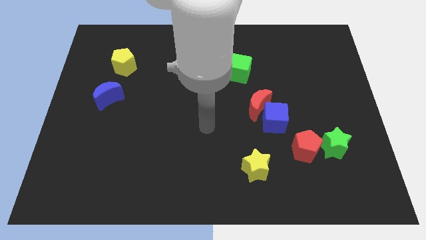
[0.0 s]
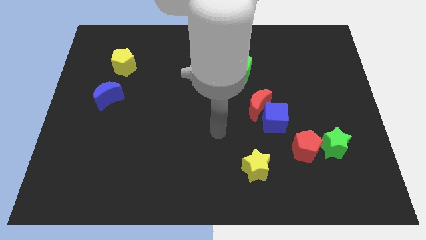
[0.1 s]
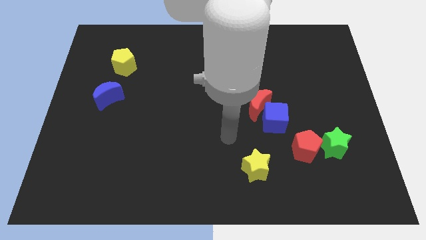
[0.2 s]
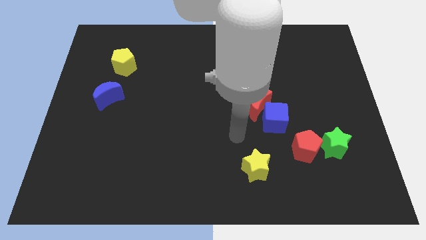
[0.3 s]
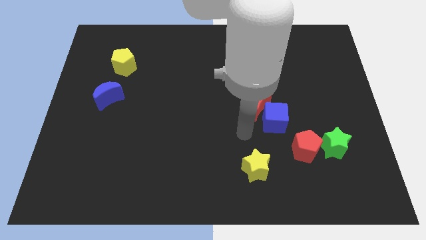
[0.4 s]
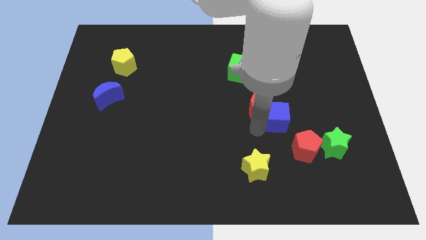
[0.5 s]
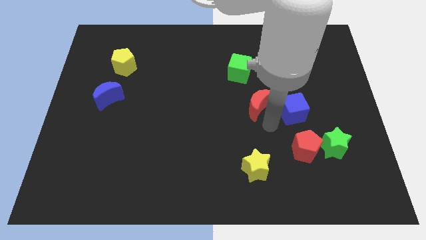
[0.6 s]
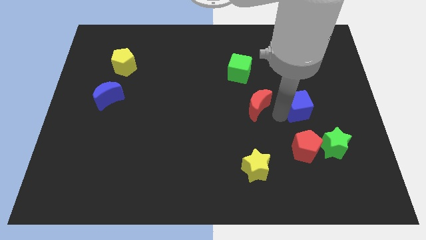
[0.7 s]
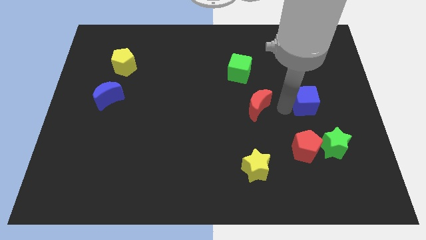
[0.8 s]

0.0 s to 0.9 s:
move the red moon away from the blue cube

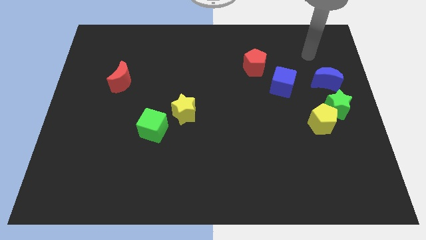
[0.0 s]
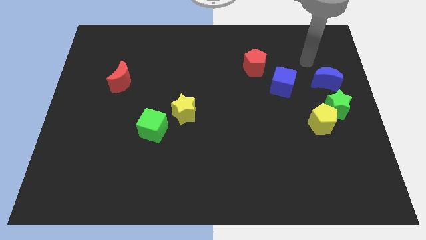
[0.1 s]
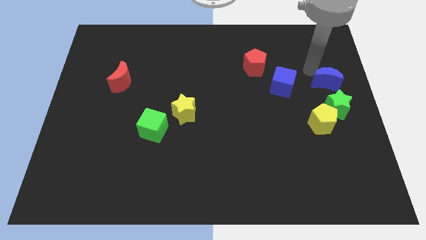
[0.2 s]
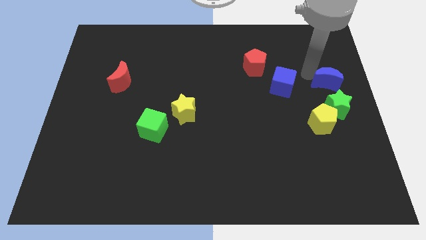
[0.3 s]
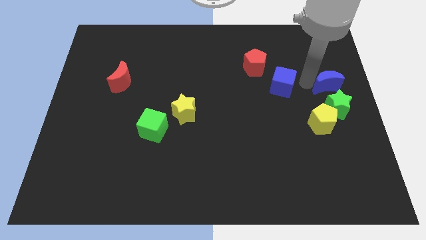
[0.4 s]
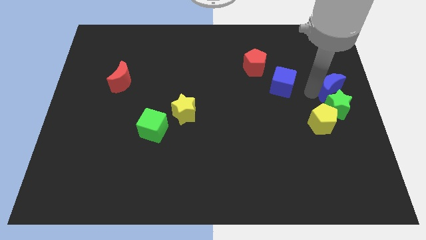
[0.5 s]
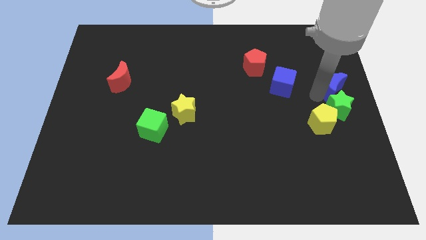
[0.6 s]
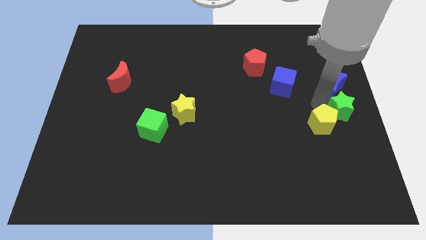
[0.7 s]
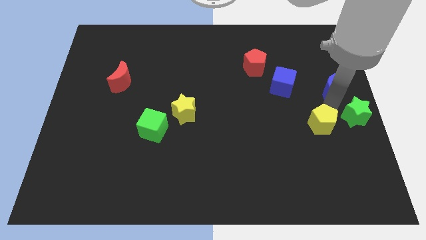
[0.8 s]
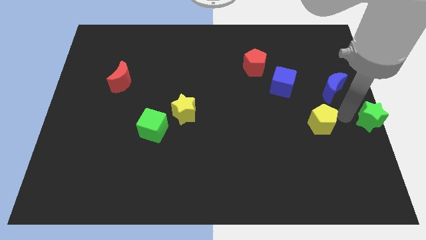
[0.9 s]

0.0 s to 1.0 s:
pull the yellow pentagon apart from the green star

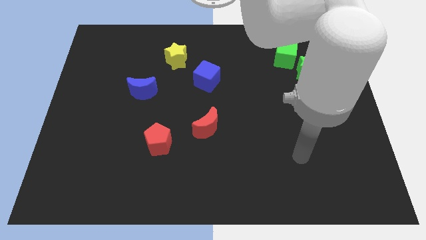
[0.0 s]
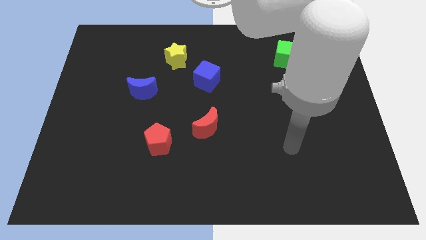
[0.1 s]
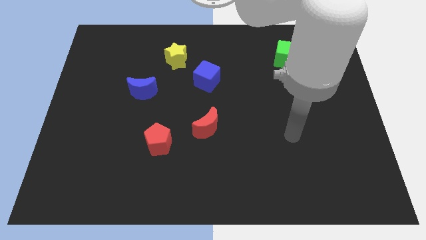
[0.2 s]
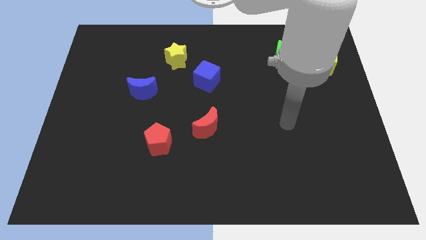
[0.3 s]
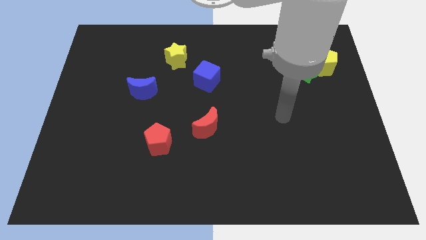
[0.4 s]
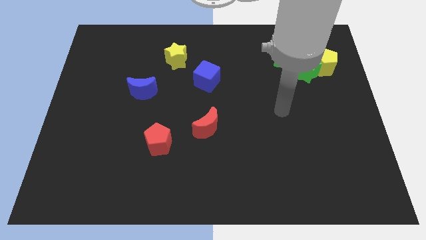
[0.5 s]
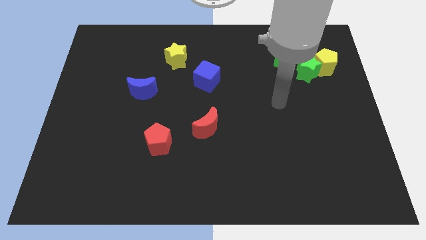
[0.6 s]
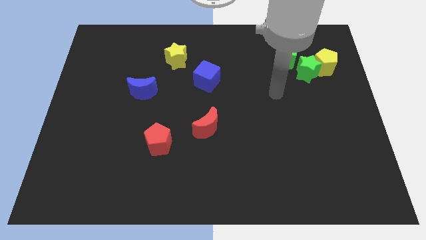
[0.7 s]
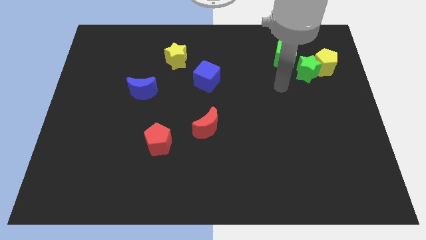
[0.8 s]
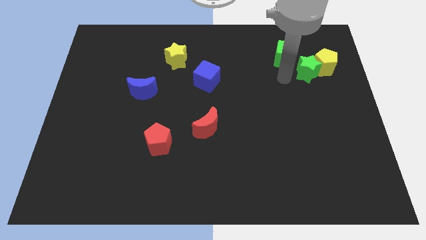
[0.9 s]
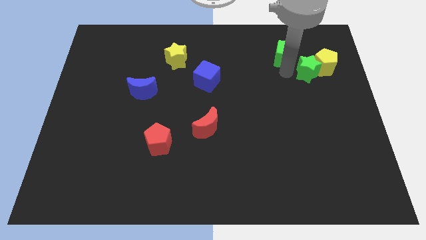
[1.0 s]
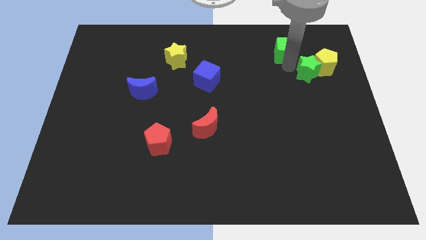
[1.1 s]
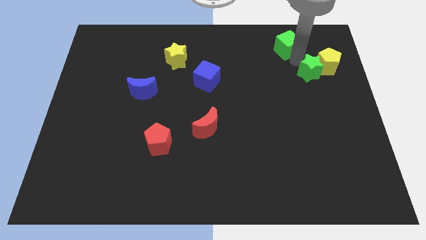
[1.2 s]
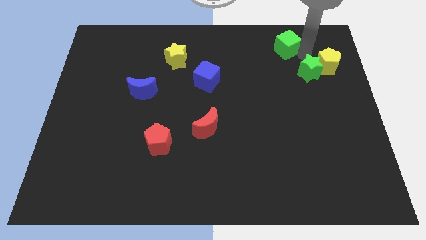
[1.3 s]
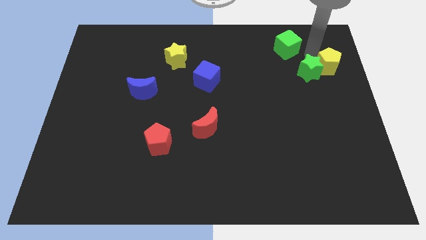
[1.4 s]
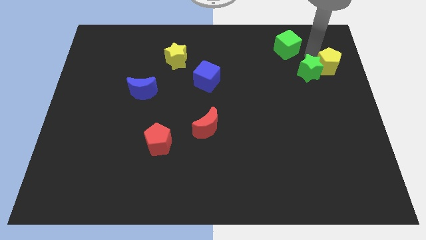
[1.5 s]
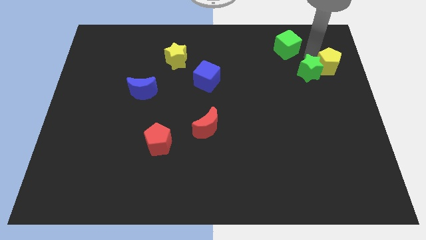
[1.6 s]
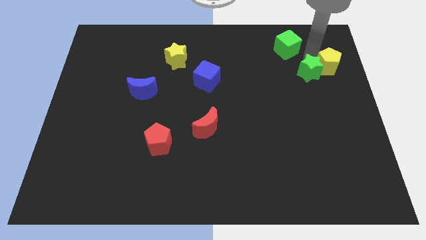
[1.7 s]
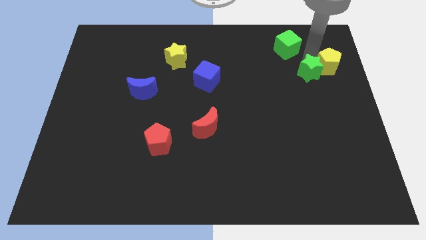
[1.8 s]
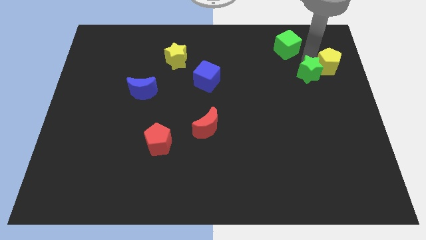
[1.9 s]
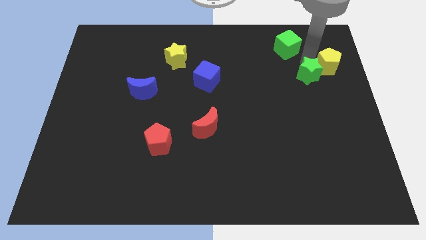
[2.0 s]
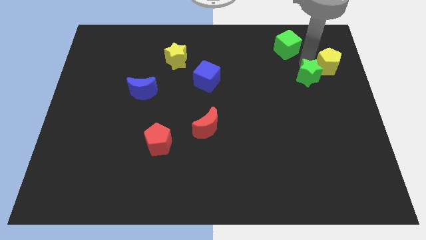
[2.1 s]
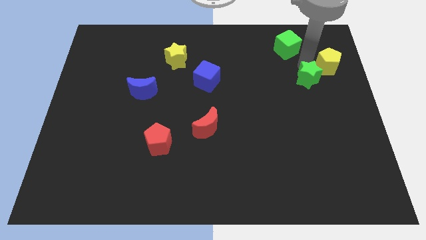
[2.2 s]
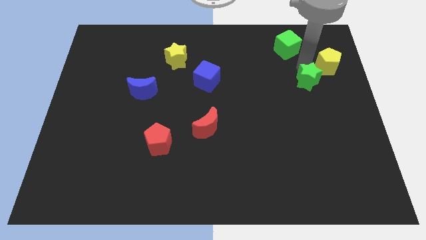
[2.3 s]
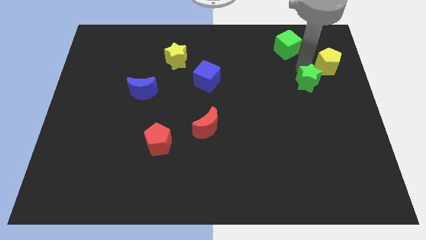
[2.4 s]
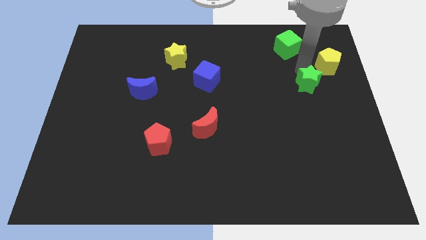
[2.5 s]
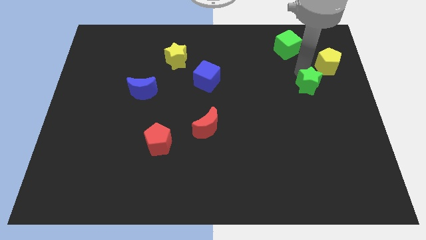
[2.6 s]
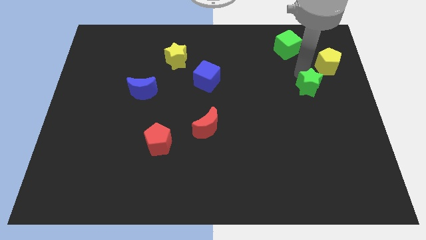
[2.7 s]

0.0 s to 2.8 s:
separate the green star from the yellow pentagon and green cube

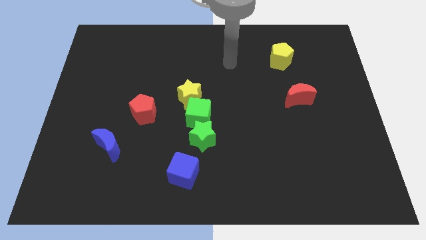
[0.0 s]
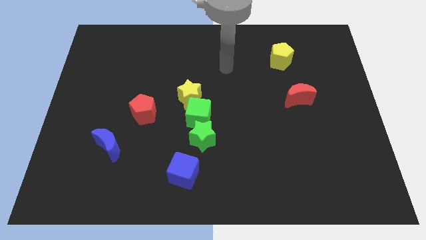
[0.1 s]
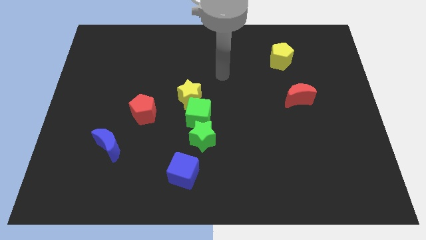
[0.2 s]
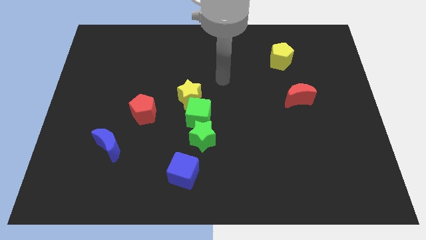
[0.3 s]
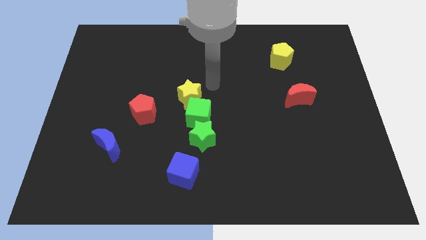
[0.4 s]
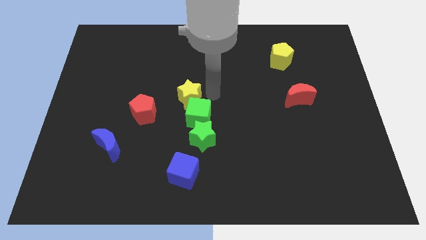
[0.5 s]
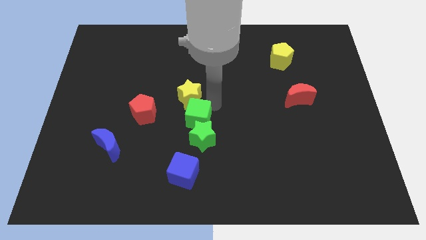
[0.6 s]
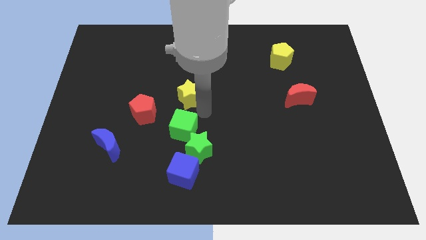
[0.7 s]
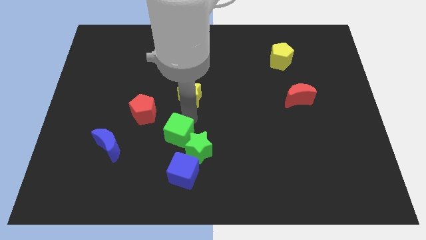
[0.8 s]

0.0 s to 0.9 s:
separate the yellow star from the green cube

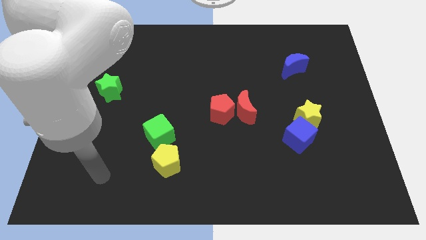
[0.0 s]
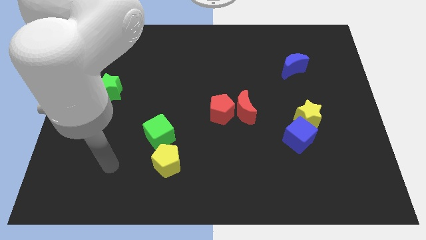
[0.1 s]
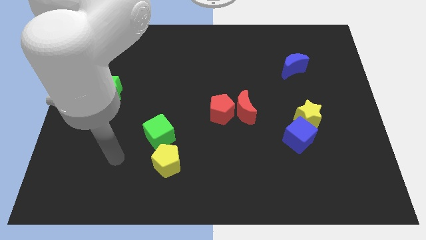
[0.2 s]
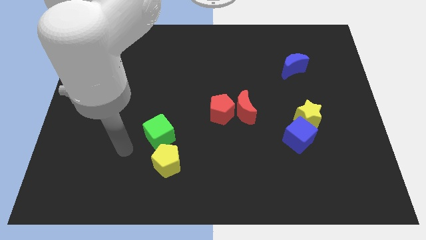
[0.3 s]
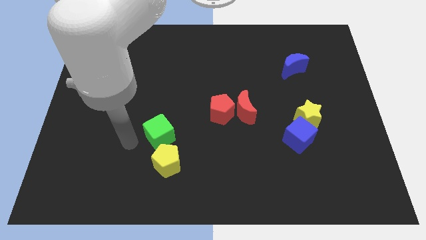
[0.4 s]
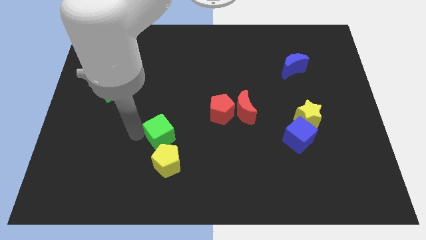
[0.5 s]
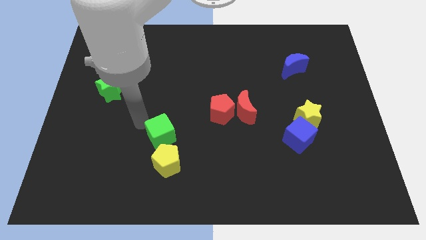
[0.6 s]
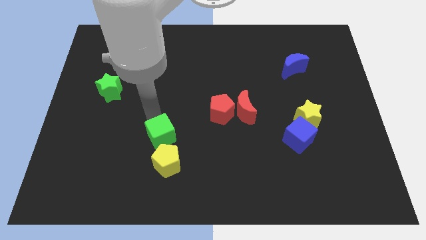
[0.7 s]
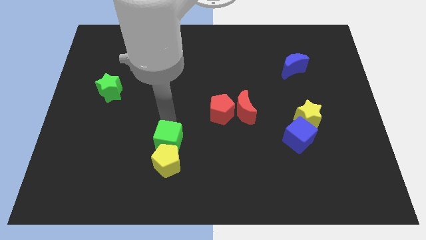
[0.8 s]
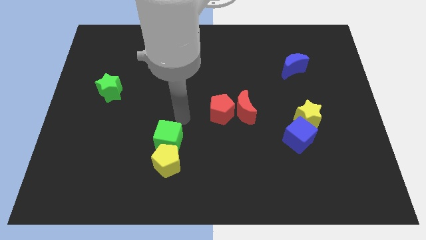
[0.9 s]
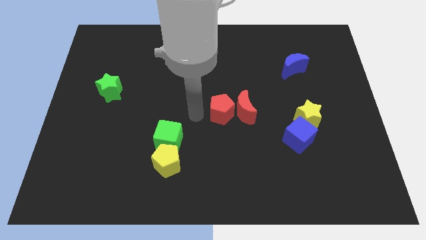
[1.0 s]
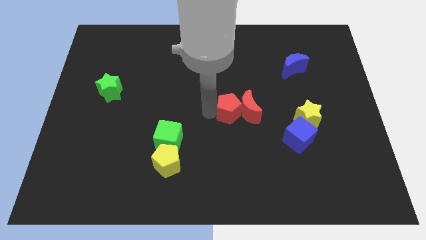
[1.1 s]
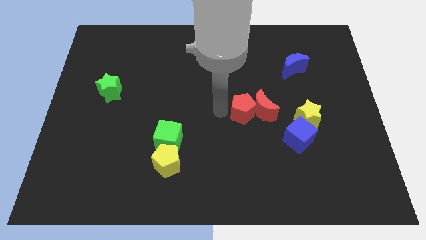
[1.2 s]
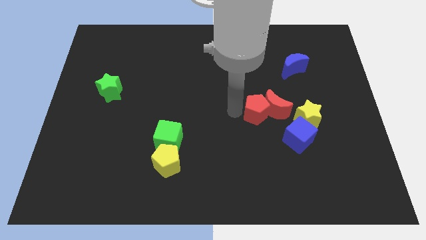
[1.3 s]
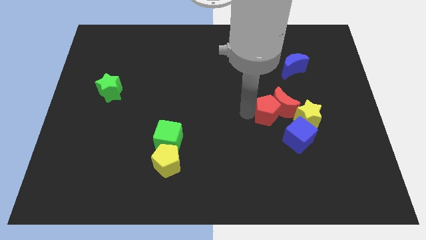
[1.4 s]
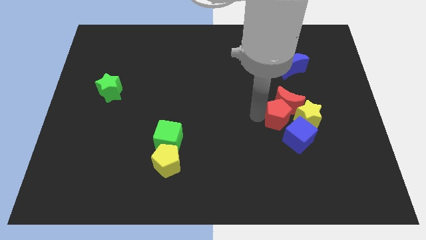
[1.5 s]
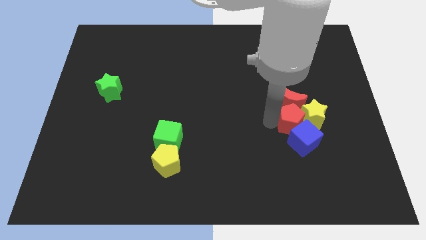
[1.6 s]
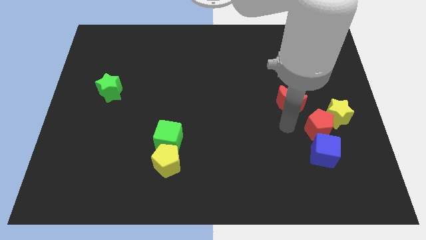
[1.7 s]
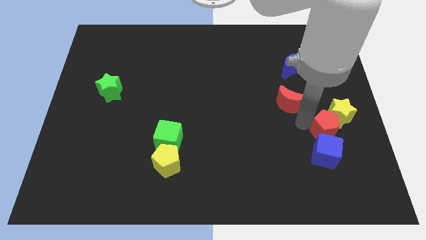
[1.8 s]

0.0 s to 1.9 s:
pull the red moon apart from the red pentagon

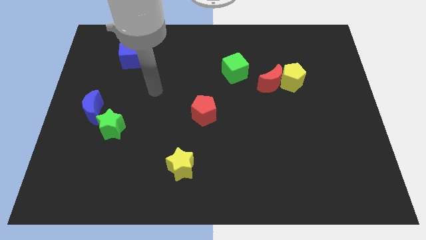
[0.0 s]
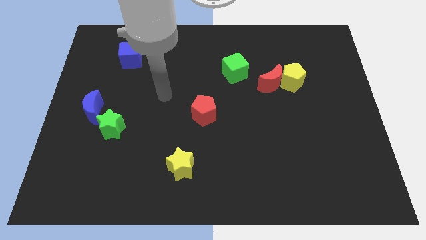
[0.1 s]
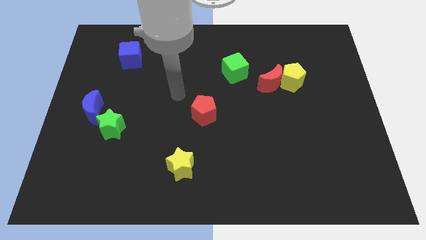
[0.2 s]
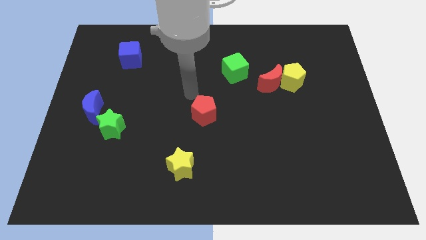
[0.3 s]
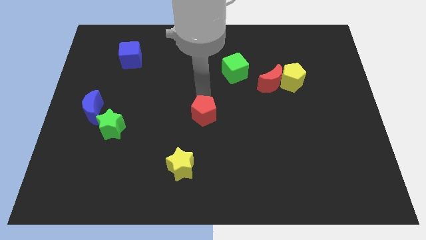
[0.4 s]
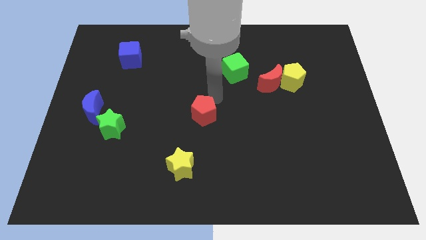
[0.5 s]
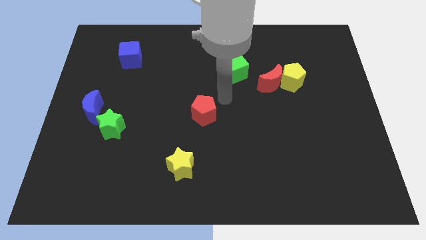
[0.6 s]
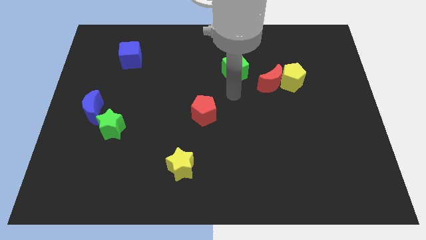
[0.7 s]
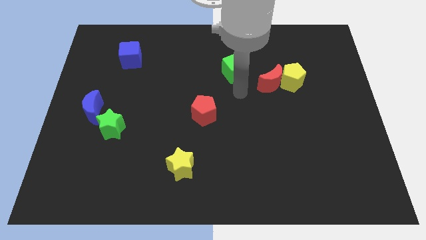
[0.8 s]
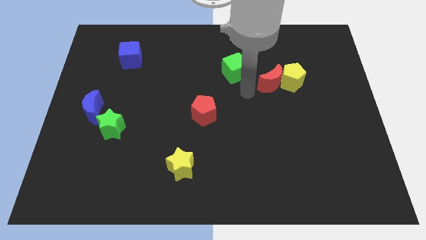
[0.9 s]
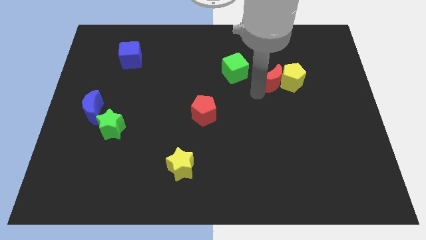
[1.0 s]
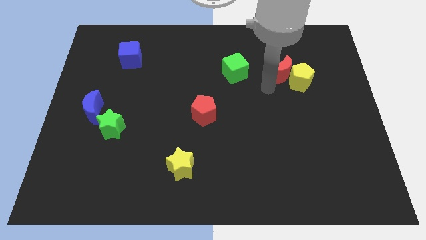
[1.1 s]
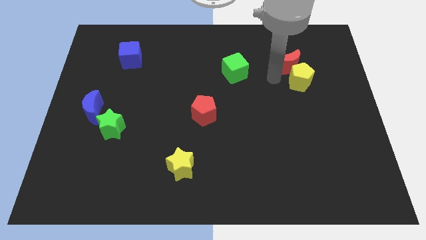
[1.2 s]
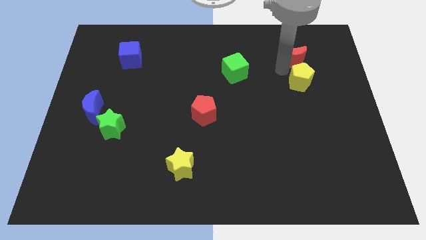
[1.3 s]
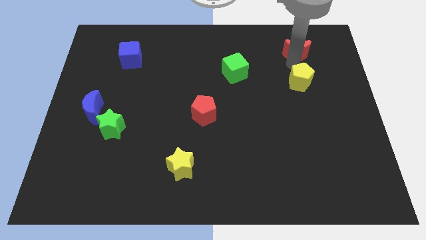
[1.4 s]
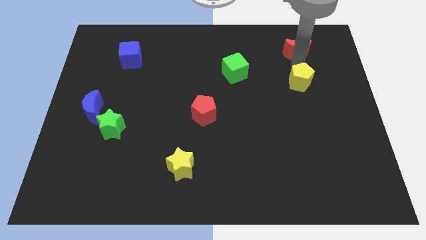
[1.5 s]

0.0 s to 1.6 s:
pull the yellow pentagon apart from the red moon

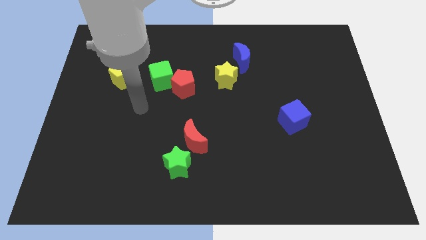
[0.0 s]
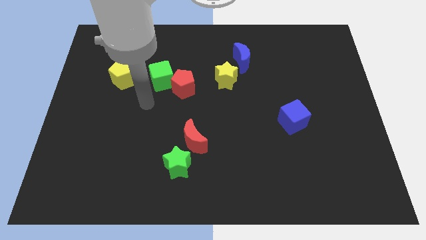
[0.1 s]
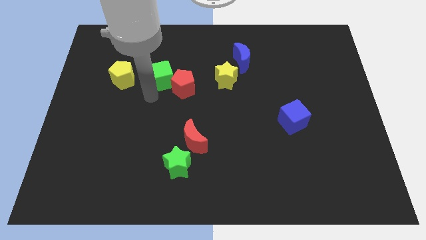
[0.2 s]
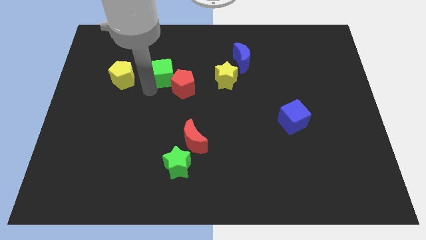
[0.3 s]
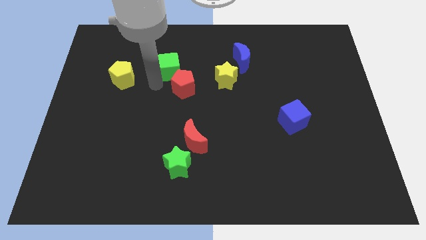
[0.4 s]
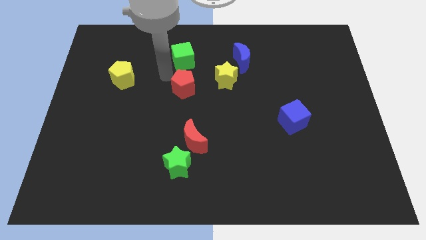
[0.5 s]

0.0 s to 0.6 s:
pull the red pentagon apart from the green cube
